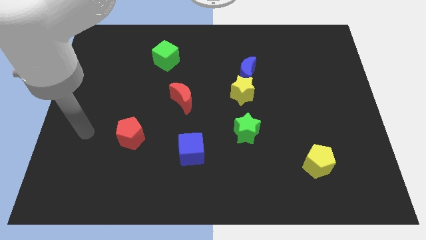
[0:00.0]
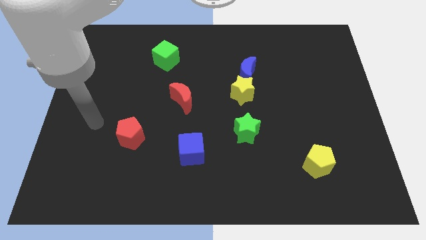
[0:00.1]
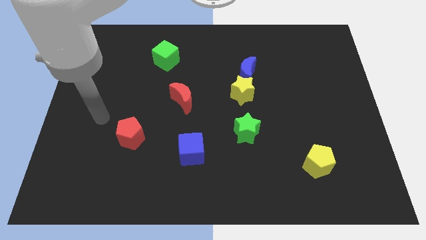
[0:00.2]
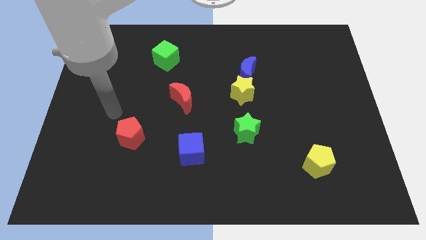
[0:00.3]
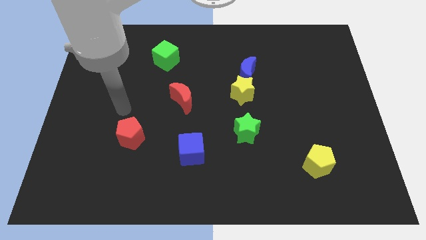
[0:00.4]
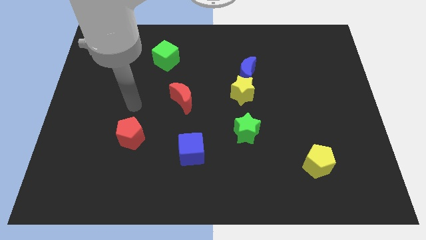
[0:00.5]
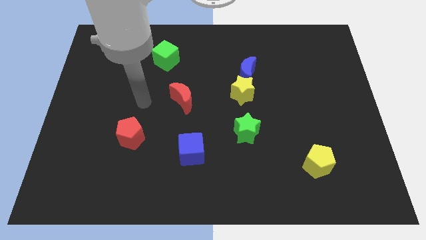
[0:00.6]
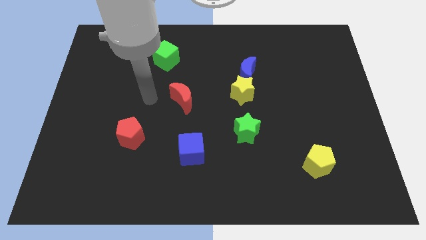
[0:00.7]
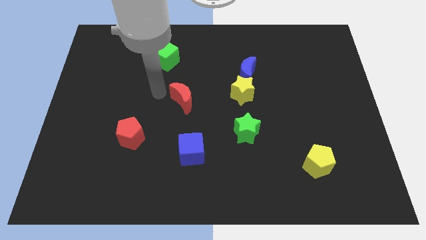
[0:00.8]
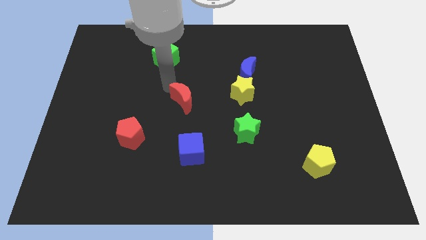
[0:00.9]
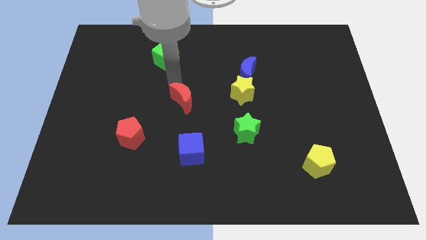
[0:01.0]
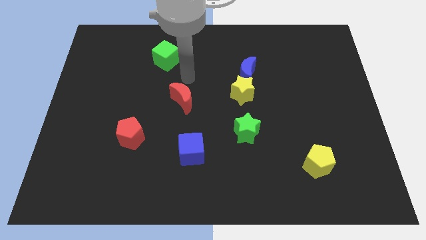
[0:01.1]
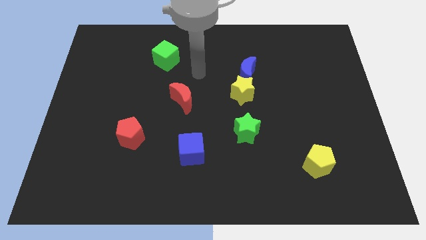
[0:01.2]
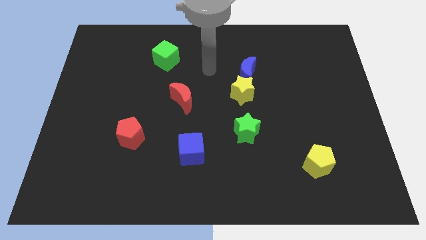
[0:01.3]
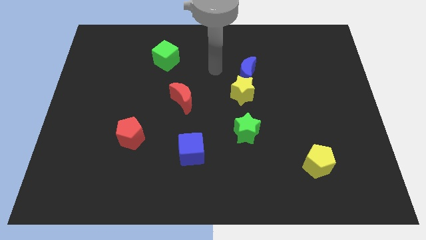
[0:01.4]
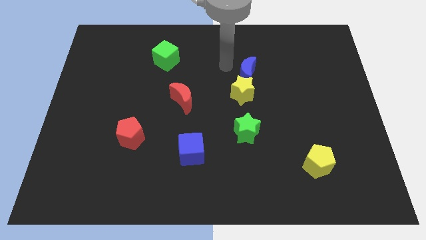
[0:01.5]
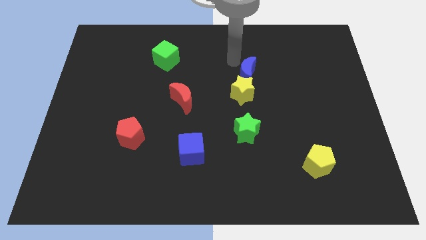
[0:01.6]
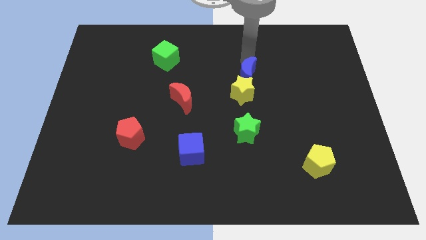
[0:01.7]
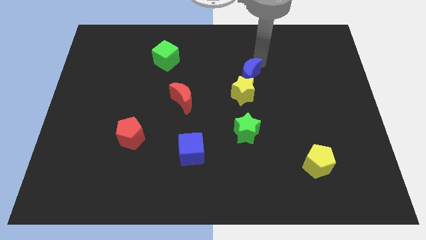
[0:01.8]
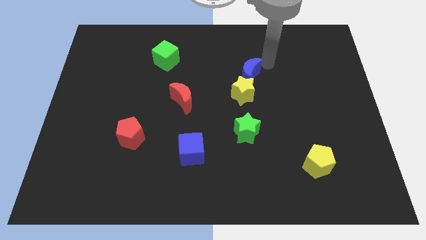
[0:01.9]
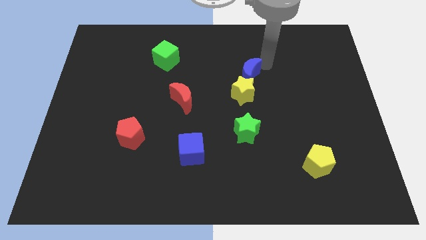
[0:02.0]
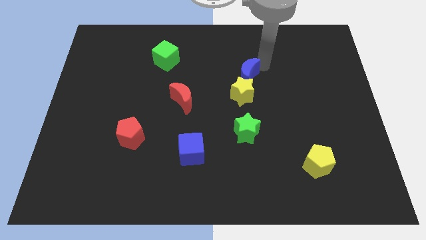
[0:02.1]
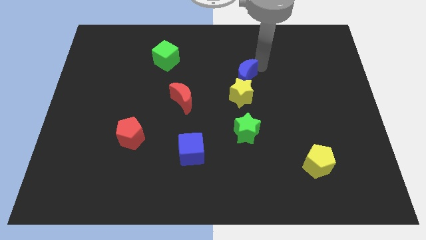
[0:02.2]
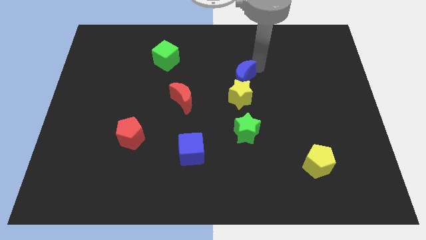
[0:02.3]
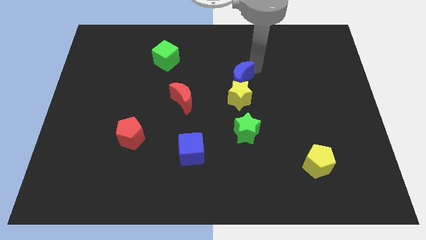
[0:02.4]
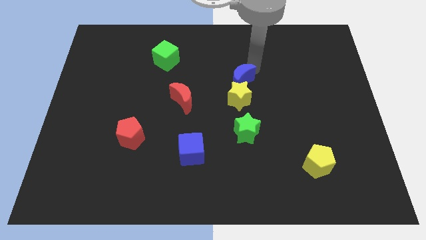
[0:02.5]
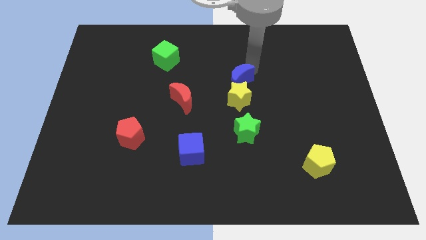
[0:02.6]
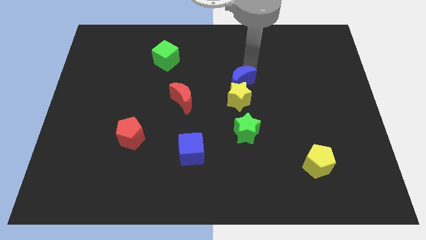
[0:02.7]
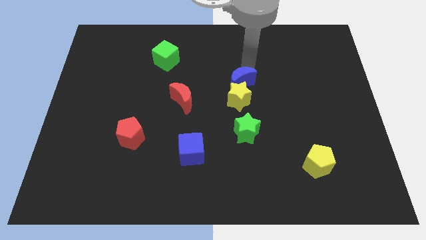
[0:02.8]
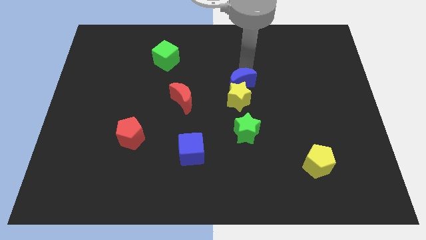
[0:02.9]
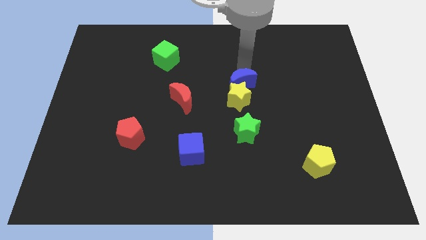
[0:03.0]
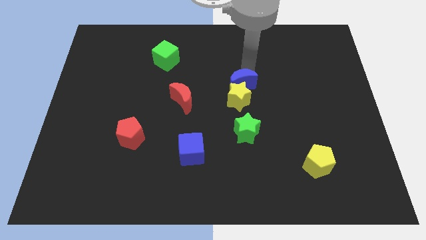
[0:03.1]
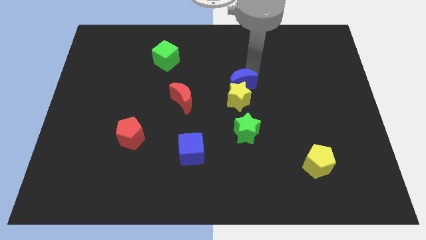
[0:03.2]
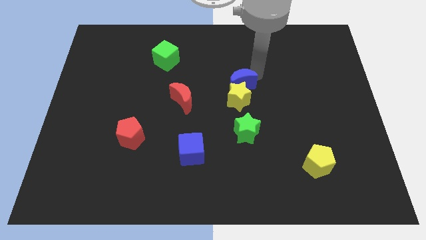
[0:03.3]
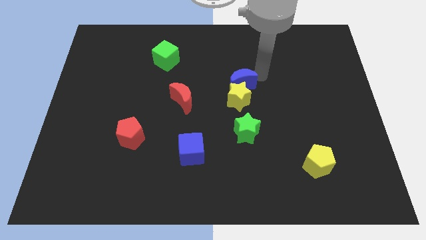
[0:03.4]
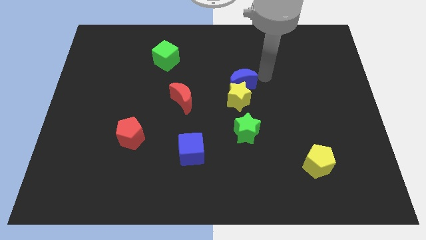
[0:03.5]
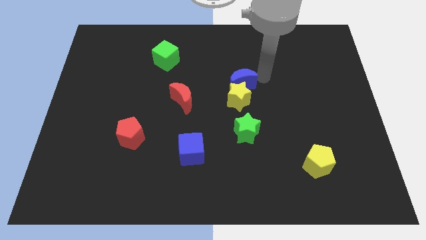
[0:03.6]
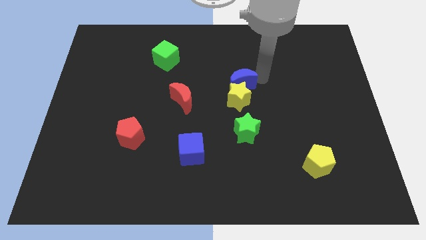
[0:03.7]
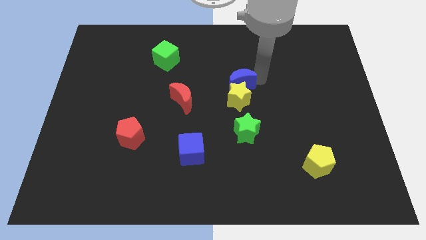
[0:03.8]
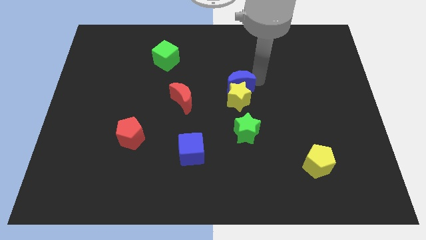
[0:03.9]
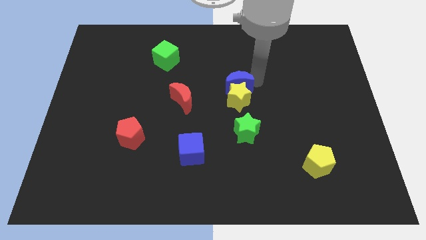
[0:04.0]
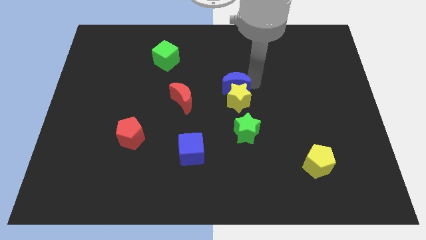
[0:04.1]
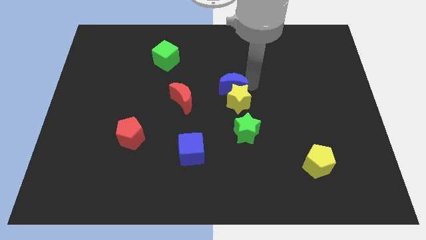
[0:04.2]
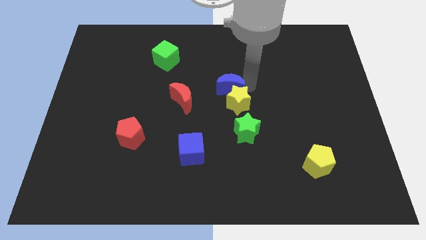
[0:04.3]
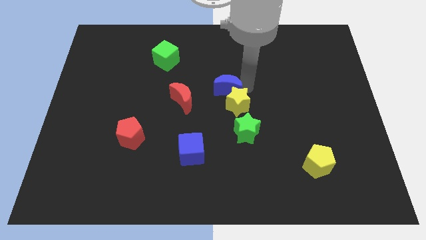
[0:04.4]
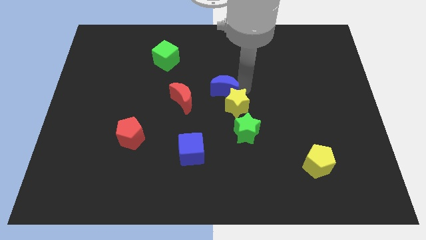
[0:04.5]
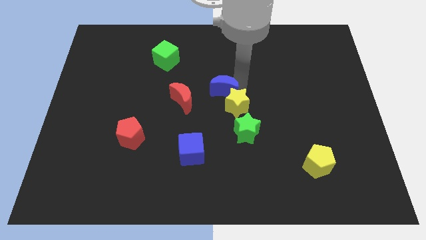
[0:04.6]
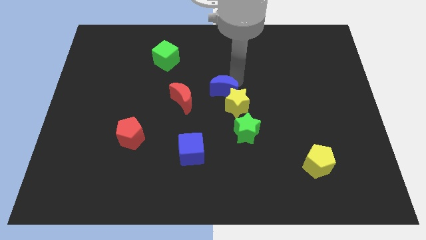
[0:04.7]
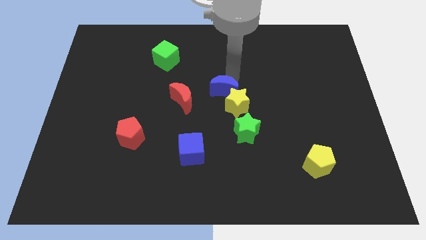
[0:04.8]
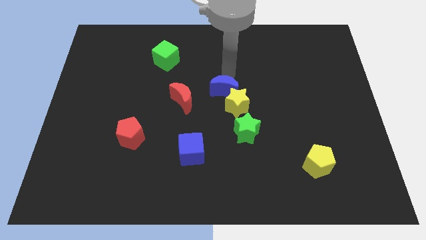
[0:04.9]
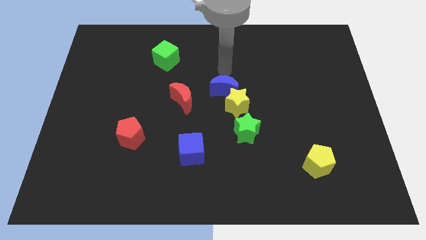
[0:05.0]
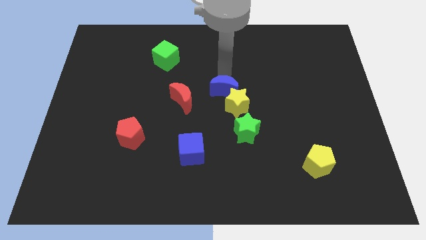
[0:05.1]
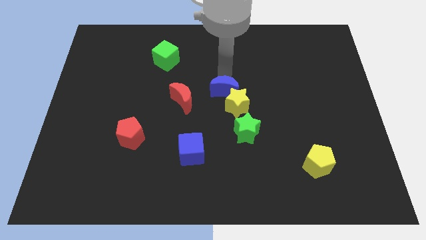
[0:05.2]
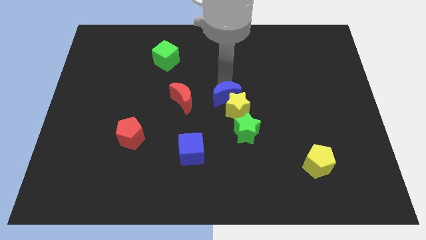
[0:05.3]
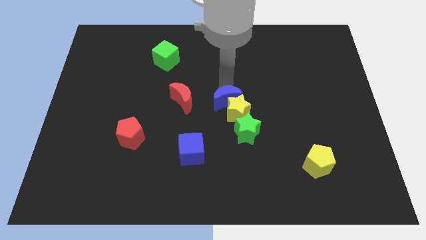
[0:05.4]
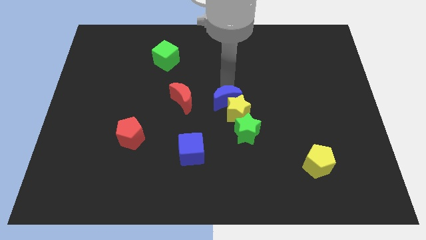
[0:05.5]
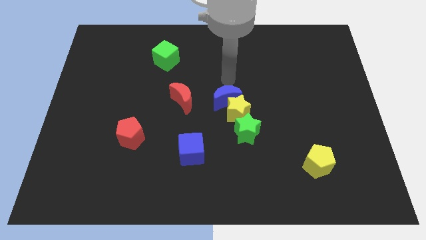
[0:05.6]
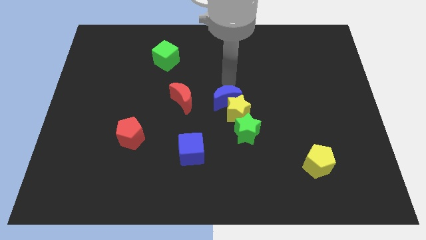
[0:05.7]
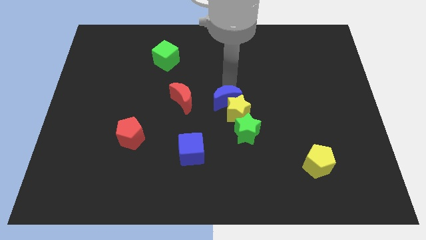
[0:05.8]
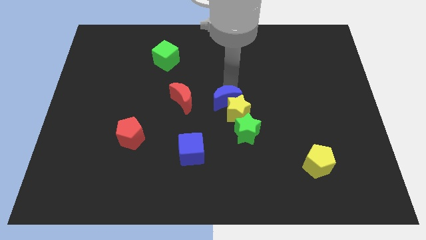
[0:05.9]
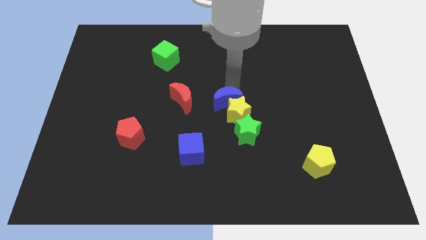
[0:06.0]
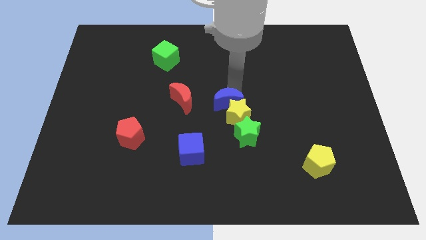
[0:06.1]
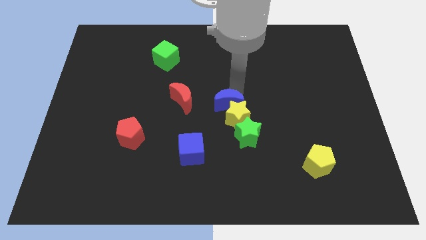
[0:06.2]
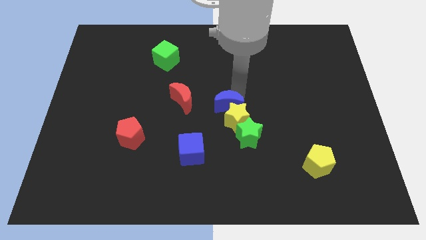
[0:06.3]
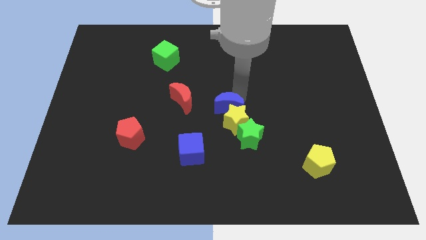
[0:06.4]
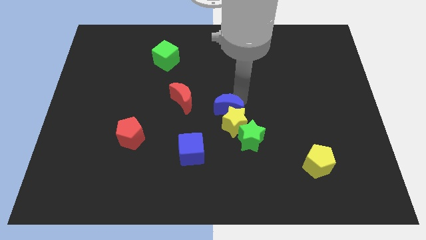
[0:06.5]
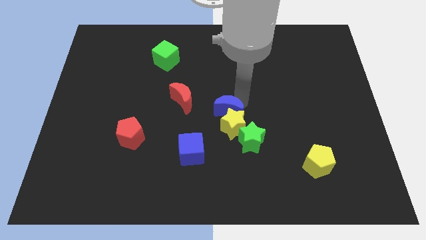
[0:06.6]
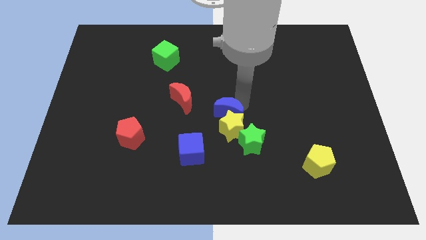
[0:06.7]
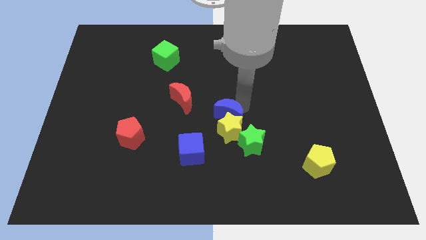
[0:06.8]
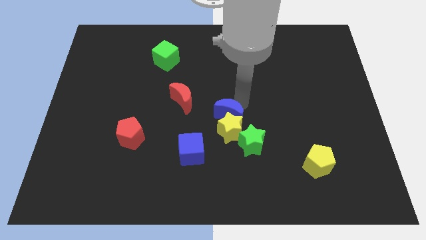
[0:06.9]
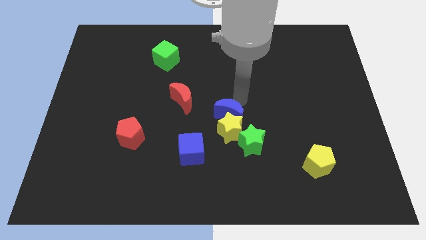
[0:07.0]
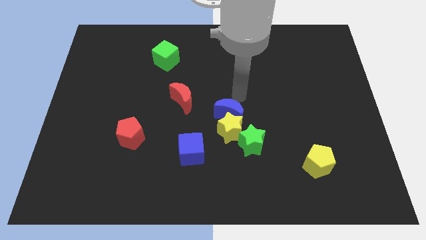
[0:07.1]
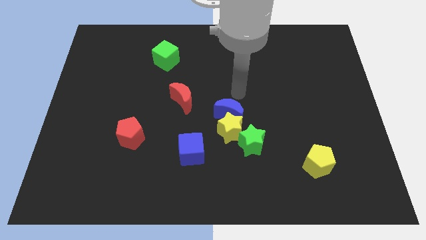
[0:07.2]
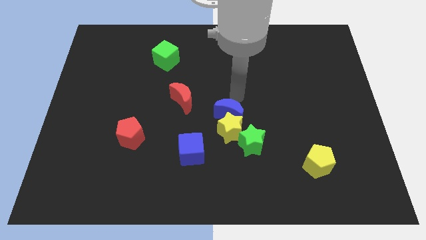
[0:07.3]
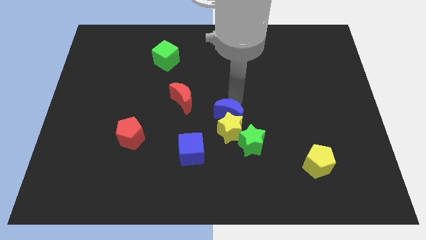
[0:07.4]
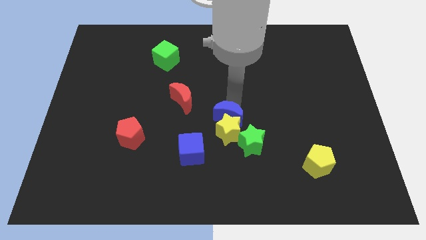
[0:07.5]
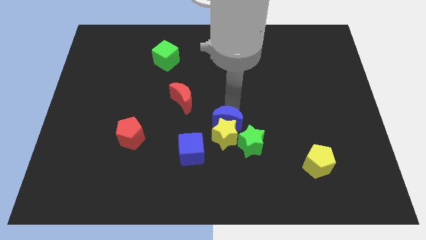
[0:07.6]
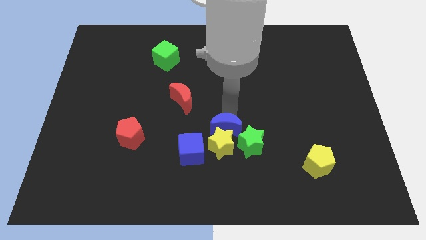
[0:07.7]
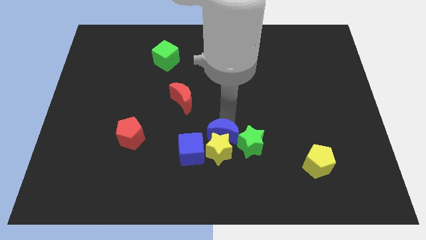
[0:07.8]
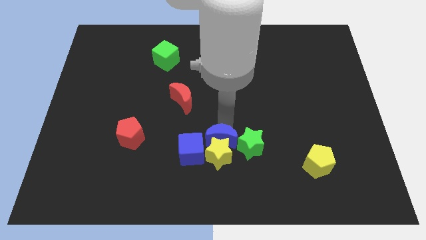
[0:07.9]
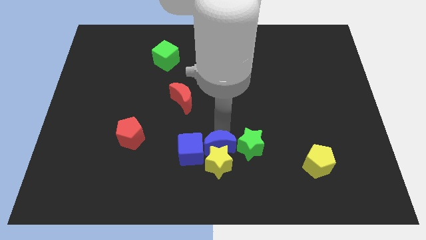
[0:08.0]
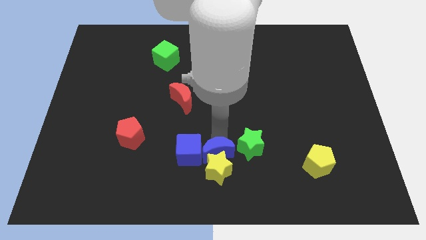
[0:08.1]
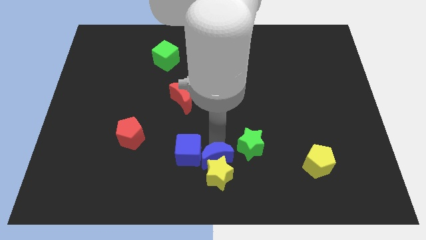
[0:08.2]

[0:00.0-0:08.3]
slide the blue moon to the bottom
